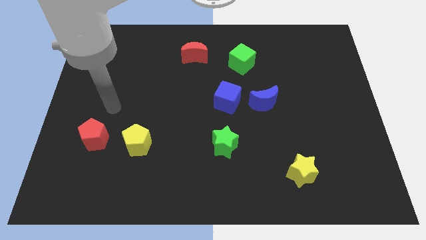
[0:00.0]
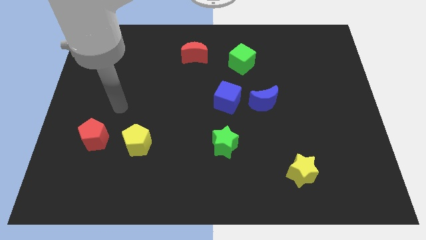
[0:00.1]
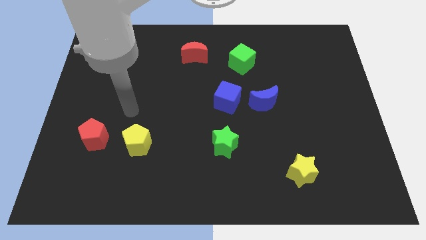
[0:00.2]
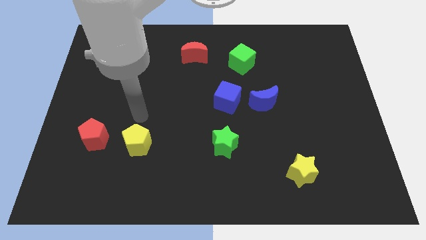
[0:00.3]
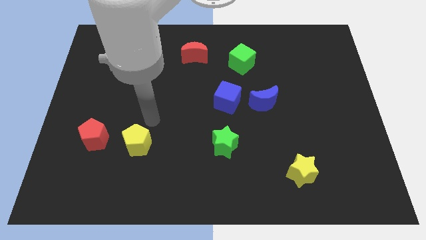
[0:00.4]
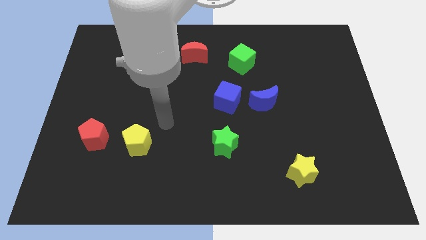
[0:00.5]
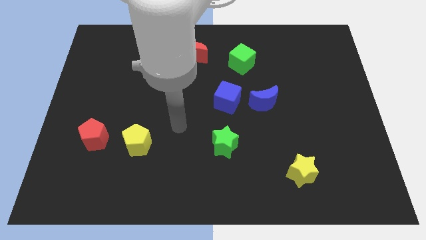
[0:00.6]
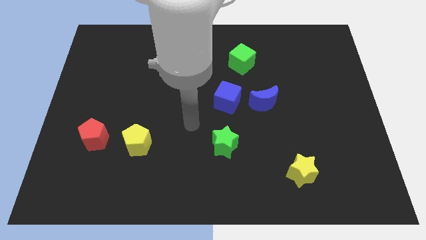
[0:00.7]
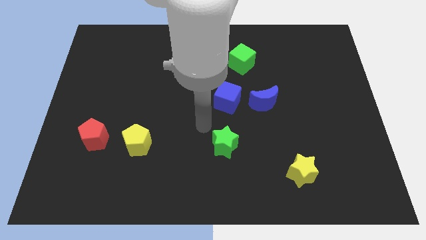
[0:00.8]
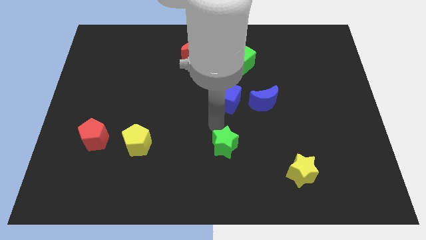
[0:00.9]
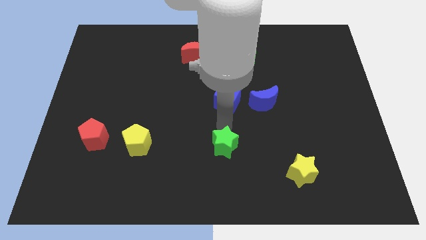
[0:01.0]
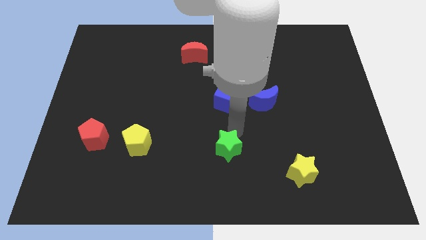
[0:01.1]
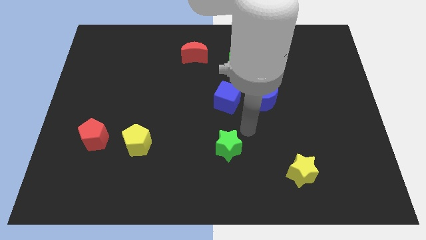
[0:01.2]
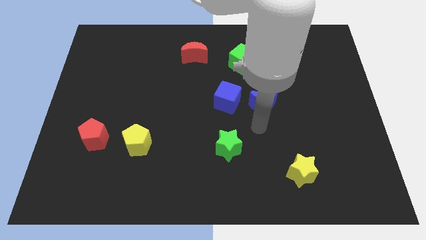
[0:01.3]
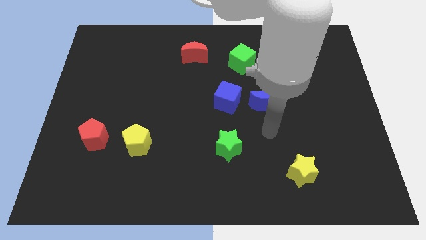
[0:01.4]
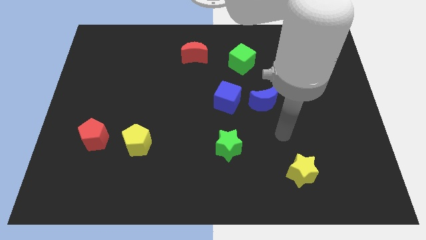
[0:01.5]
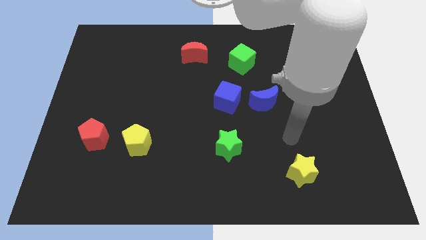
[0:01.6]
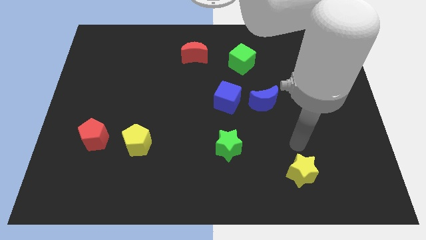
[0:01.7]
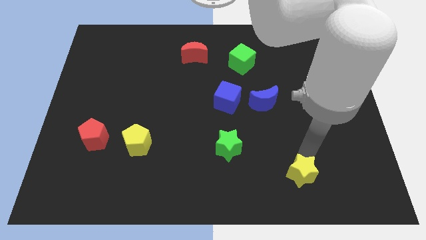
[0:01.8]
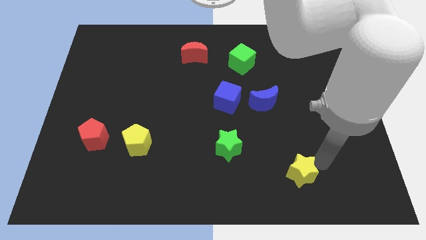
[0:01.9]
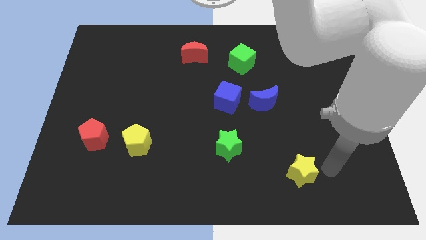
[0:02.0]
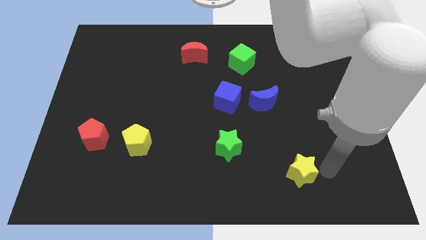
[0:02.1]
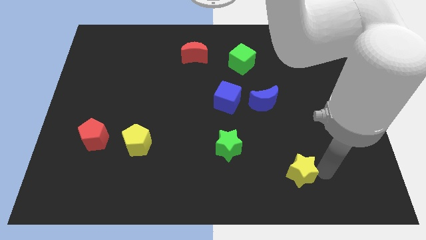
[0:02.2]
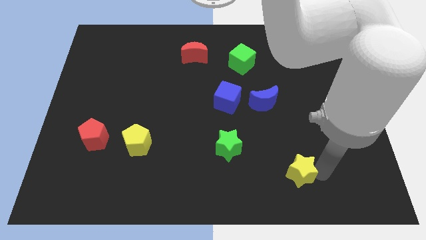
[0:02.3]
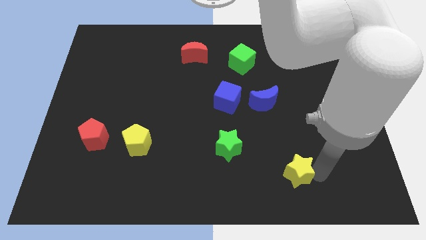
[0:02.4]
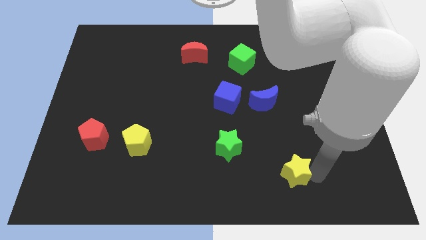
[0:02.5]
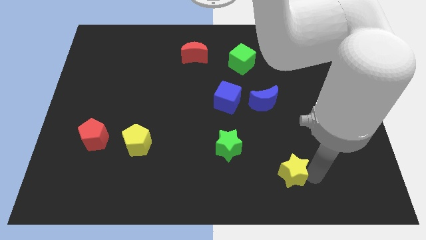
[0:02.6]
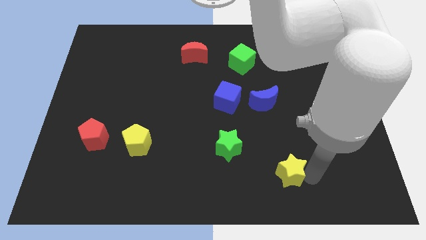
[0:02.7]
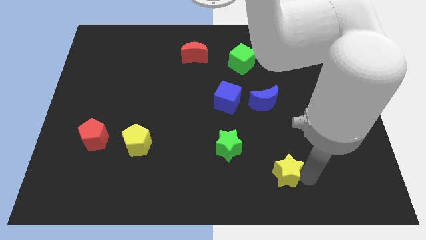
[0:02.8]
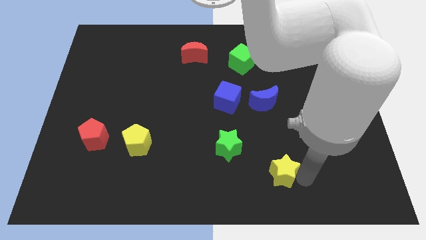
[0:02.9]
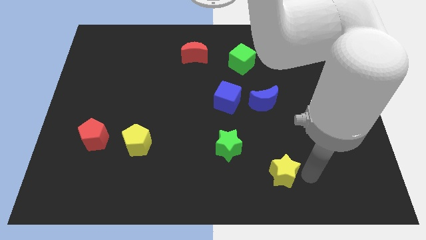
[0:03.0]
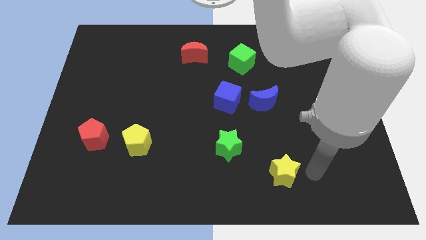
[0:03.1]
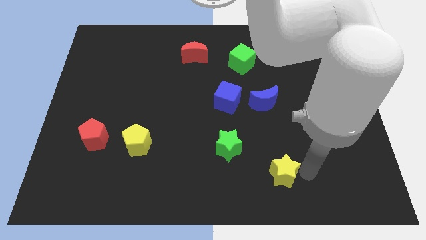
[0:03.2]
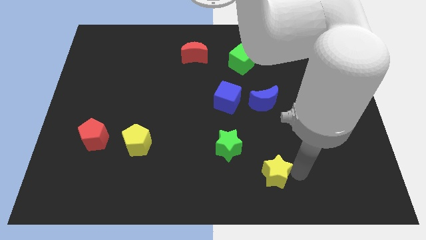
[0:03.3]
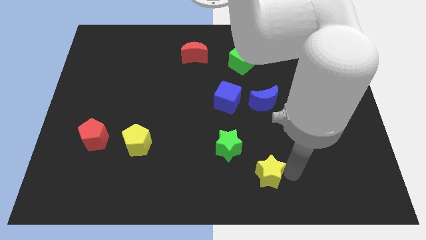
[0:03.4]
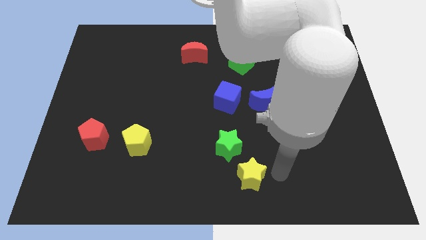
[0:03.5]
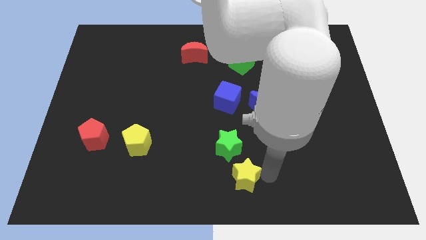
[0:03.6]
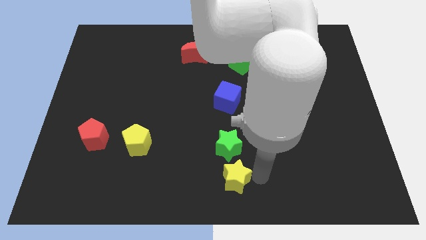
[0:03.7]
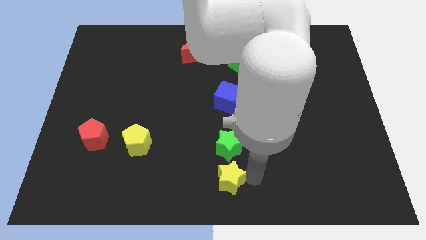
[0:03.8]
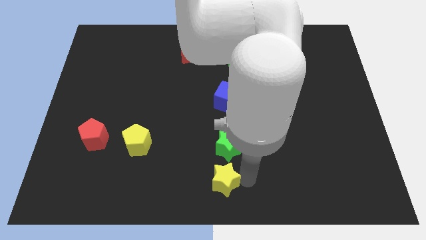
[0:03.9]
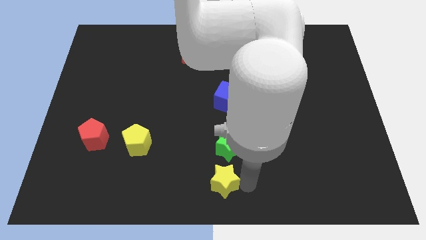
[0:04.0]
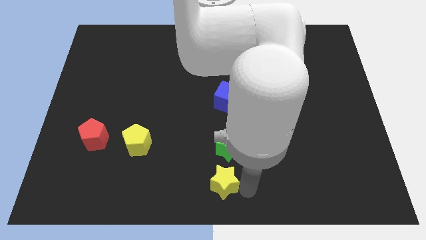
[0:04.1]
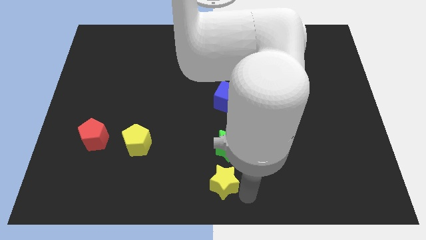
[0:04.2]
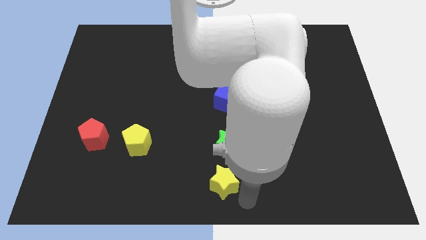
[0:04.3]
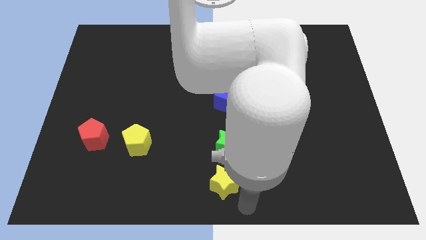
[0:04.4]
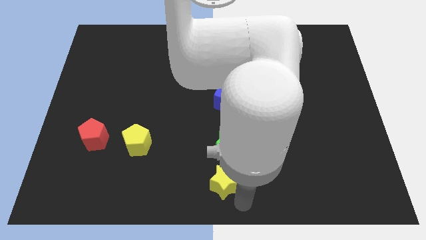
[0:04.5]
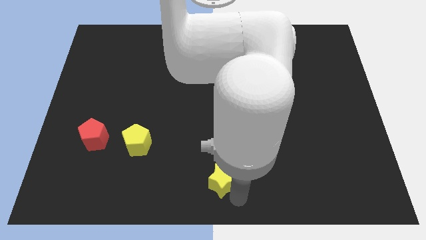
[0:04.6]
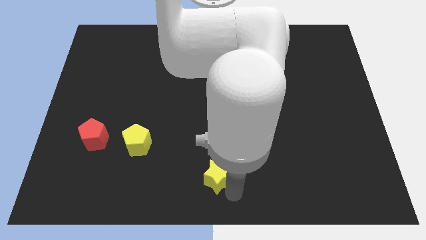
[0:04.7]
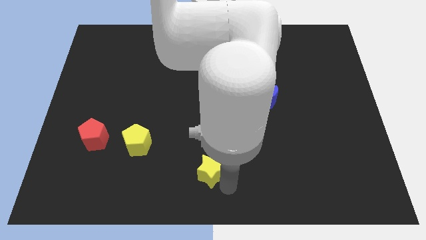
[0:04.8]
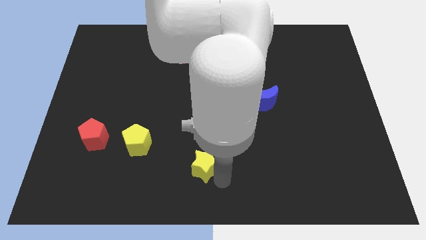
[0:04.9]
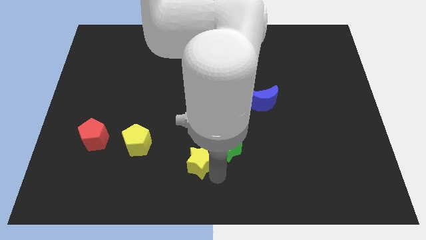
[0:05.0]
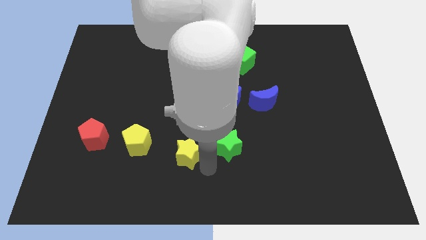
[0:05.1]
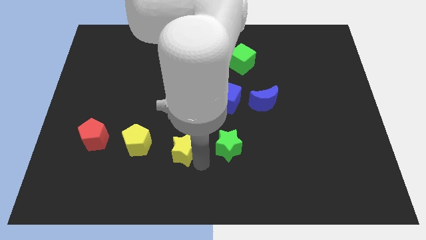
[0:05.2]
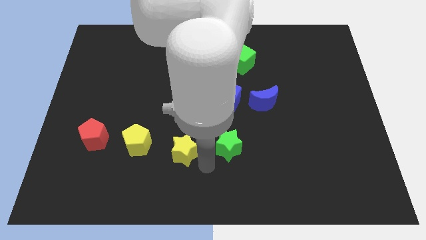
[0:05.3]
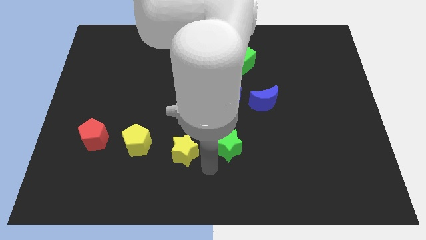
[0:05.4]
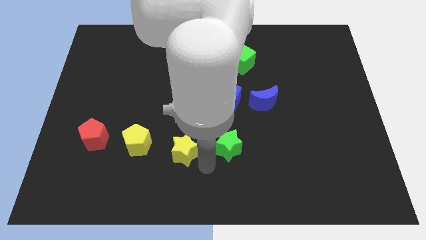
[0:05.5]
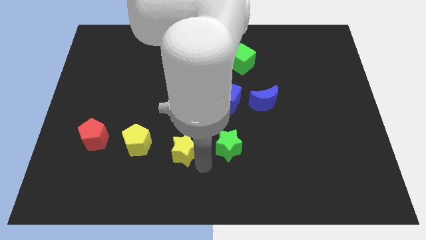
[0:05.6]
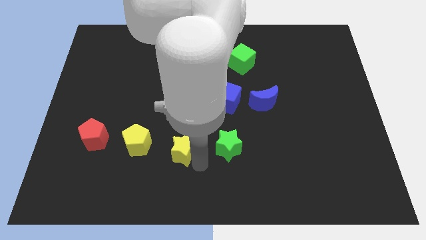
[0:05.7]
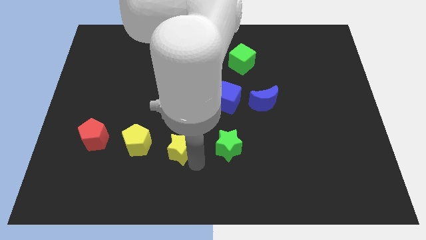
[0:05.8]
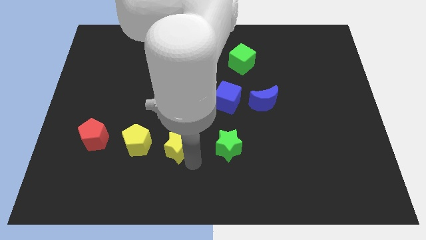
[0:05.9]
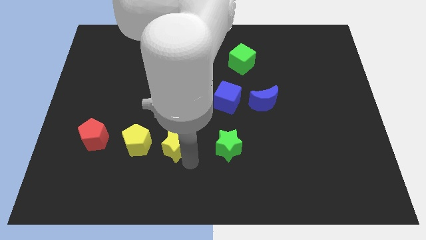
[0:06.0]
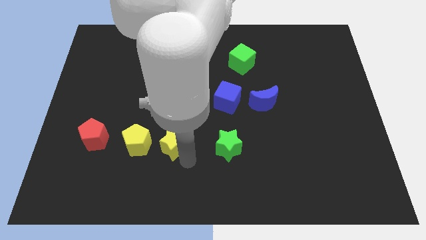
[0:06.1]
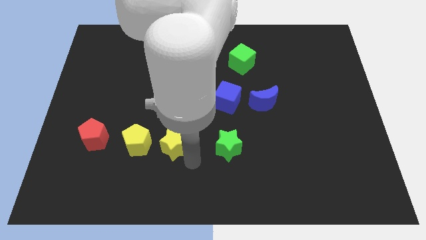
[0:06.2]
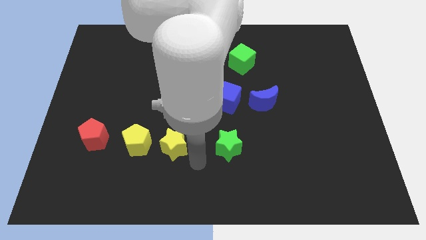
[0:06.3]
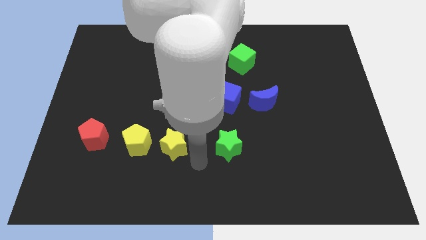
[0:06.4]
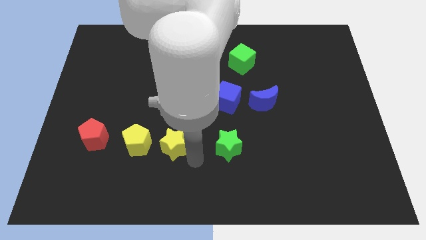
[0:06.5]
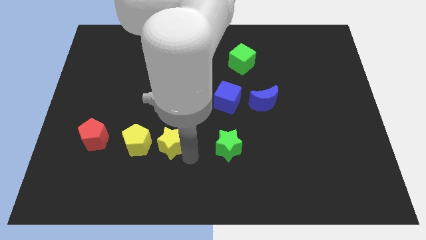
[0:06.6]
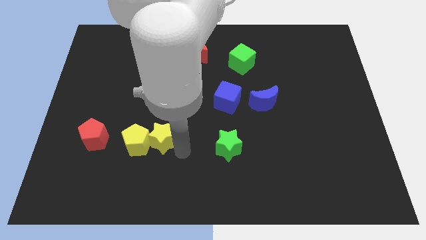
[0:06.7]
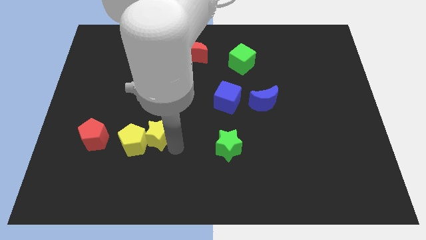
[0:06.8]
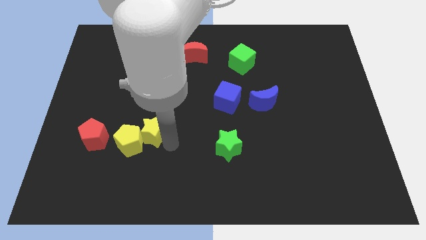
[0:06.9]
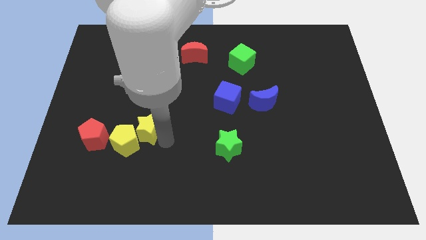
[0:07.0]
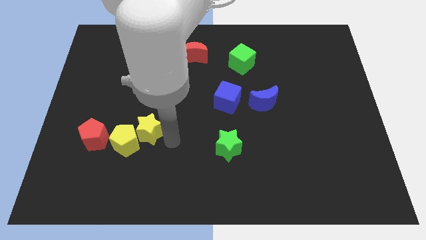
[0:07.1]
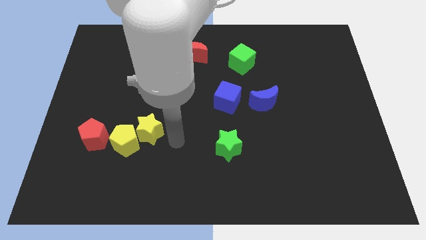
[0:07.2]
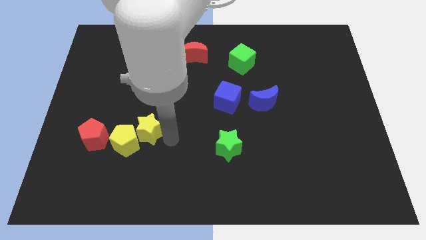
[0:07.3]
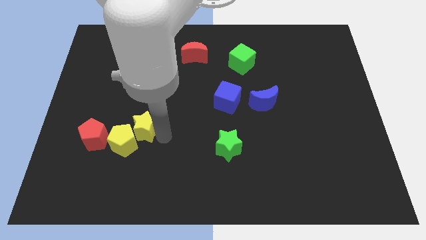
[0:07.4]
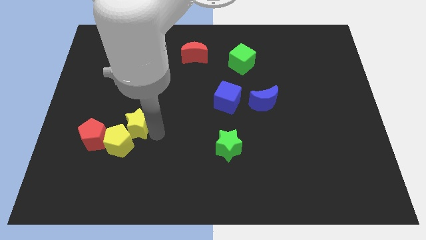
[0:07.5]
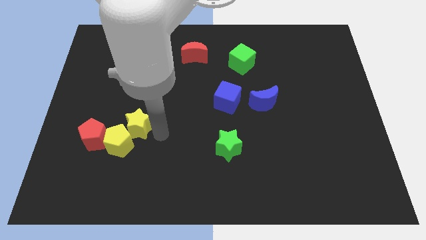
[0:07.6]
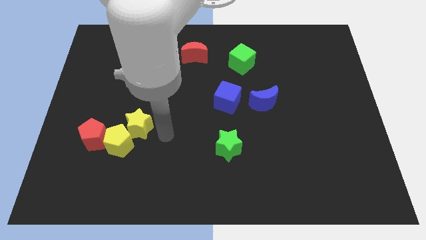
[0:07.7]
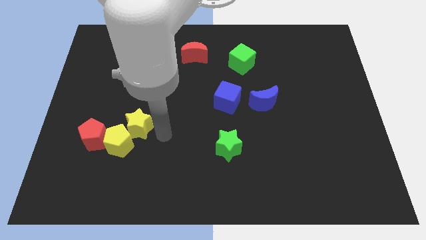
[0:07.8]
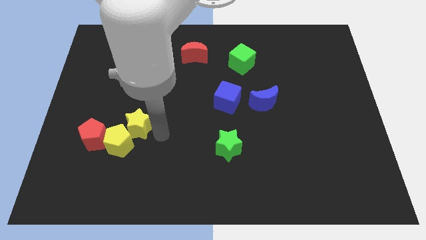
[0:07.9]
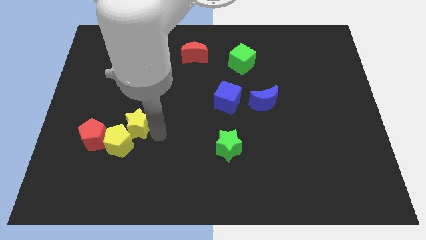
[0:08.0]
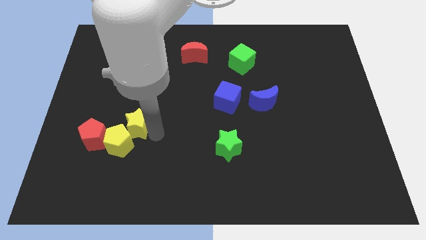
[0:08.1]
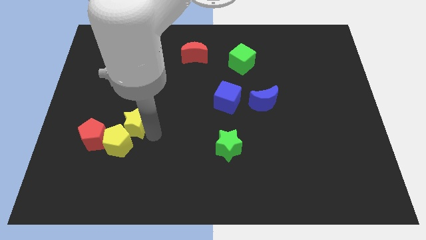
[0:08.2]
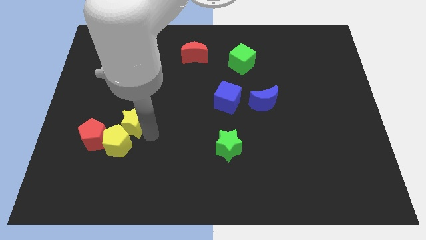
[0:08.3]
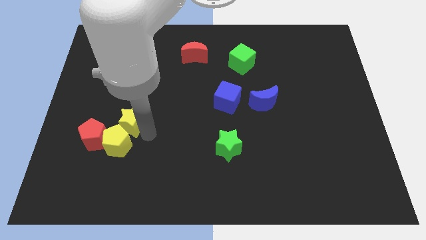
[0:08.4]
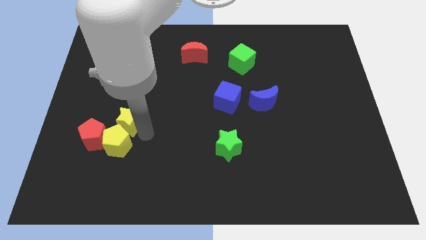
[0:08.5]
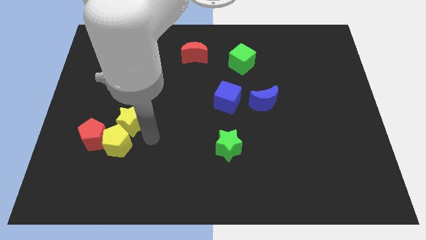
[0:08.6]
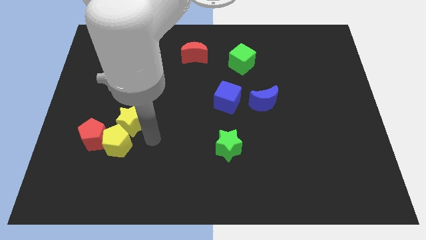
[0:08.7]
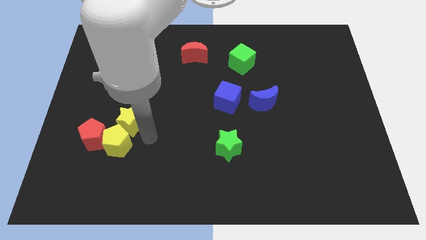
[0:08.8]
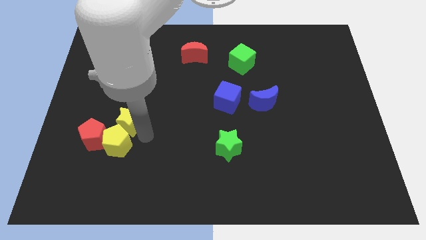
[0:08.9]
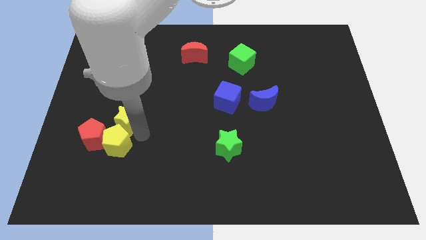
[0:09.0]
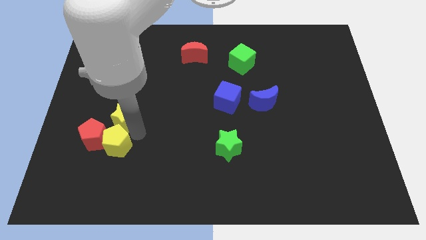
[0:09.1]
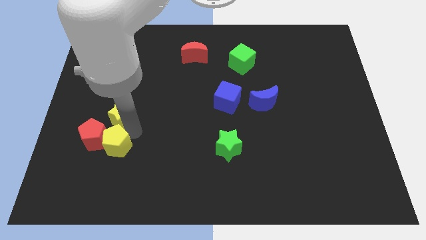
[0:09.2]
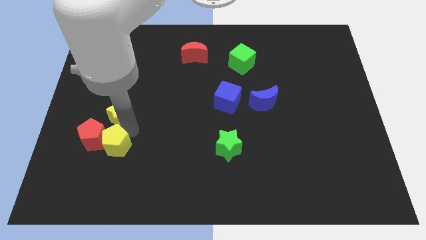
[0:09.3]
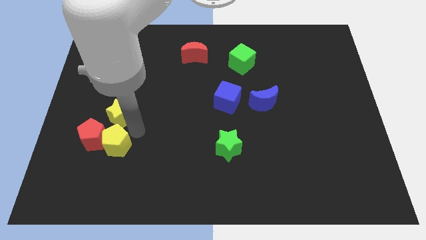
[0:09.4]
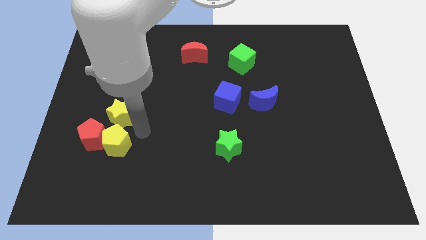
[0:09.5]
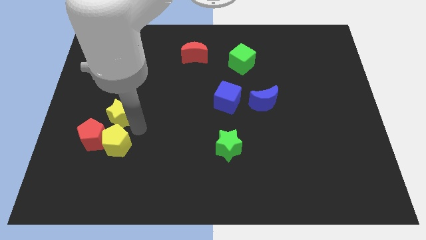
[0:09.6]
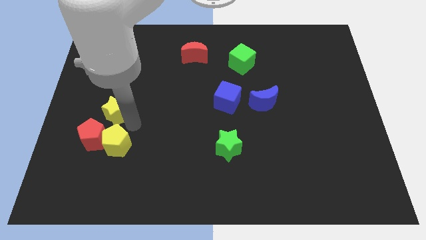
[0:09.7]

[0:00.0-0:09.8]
push the yellow star to the top of the red pentagon
